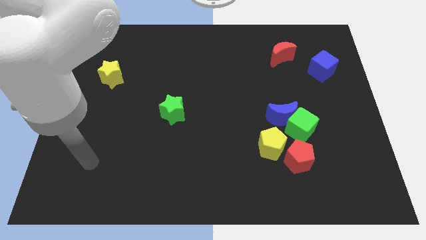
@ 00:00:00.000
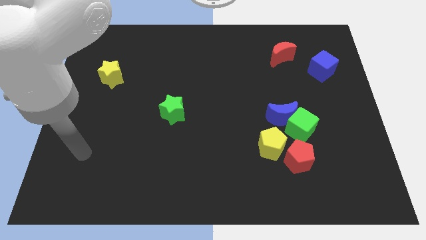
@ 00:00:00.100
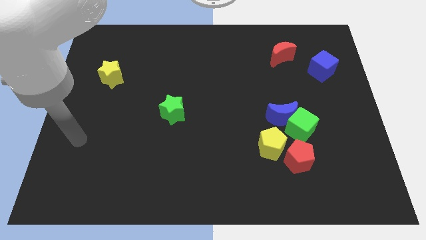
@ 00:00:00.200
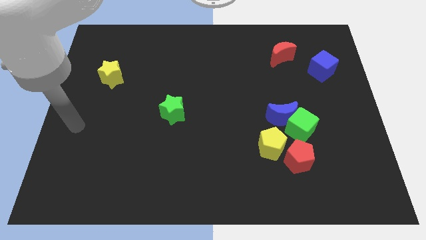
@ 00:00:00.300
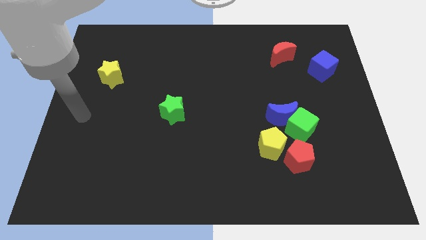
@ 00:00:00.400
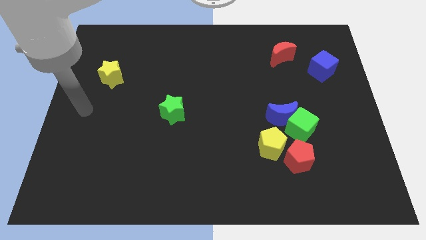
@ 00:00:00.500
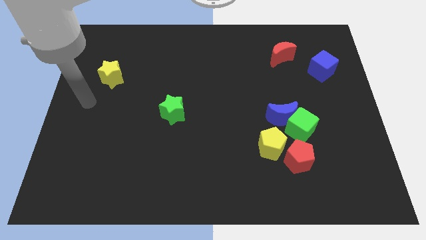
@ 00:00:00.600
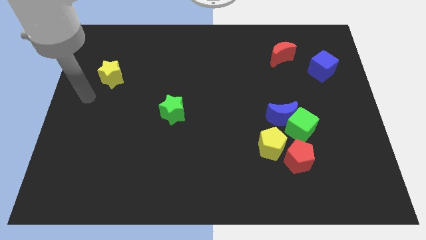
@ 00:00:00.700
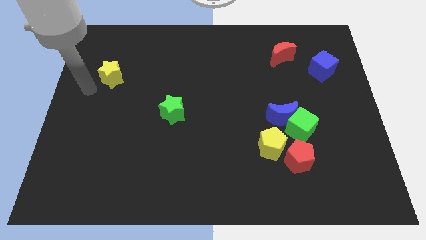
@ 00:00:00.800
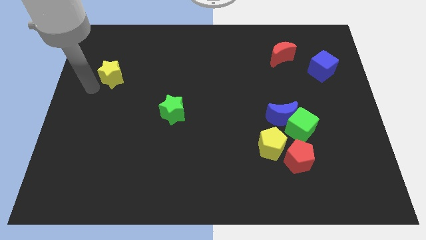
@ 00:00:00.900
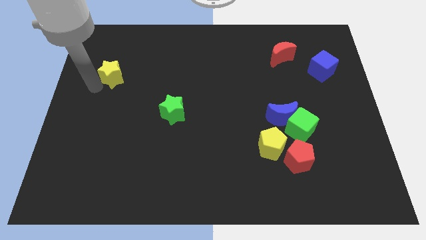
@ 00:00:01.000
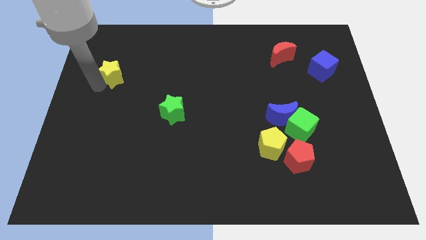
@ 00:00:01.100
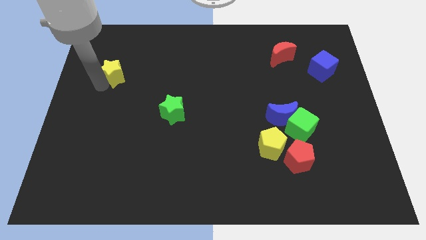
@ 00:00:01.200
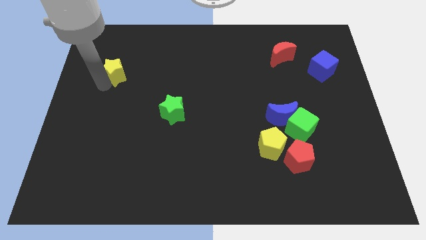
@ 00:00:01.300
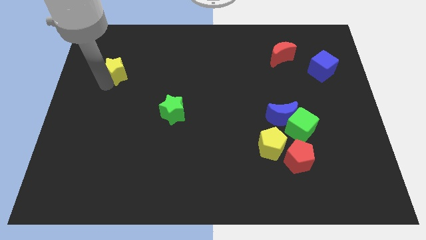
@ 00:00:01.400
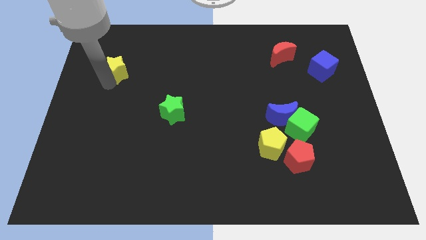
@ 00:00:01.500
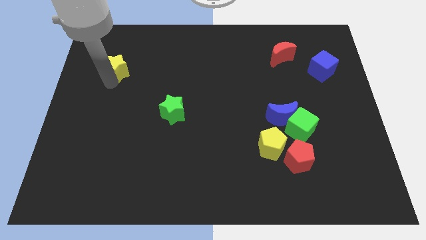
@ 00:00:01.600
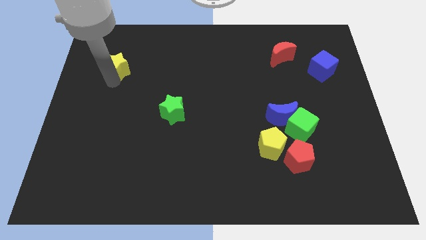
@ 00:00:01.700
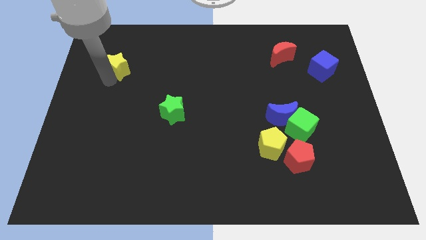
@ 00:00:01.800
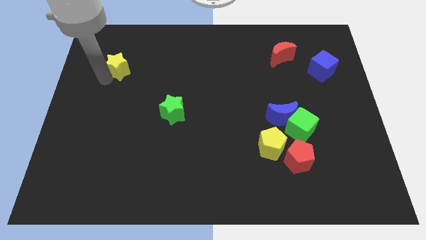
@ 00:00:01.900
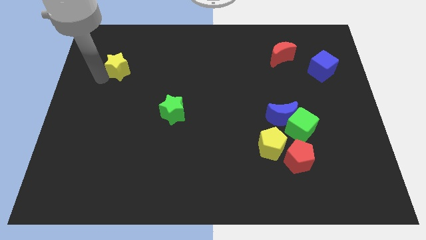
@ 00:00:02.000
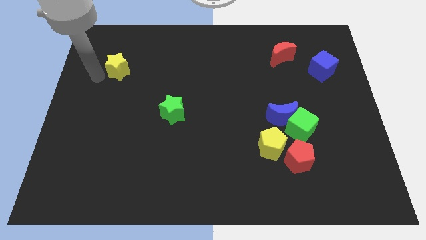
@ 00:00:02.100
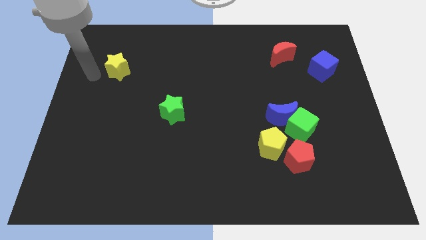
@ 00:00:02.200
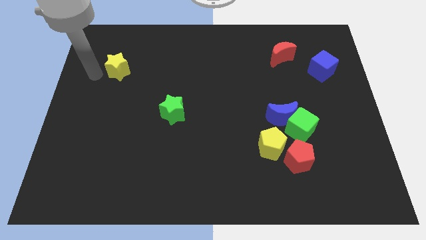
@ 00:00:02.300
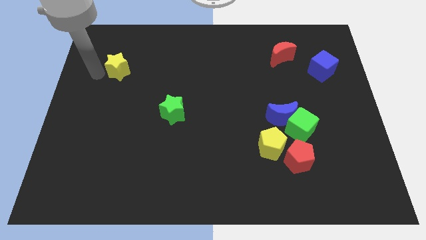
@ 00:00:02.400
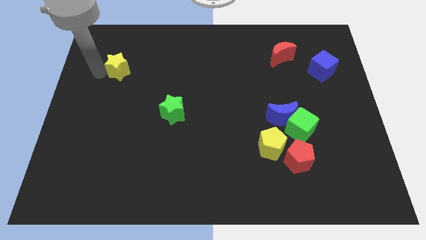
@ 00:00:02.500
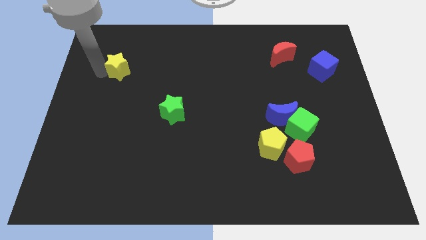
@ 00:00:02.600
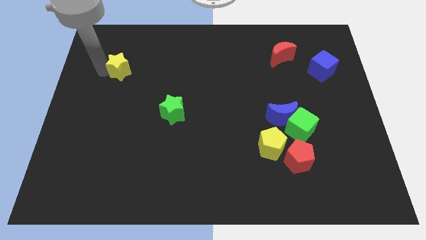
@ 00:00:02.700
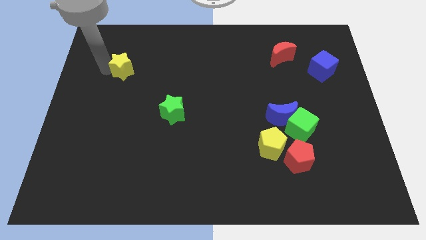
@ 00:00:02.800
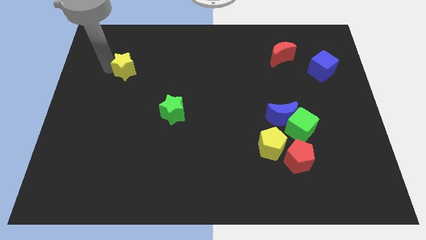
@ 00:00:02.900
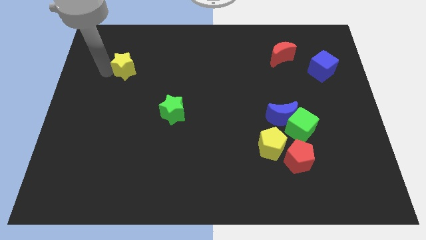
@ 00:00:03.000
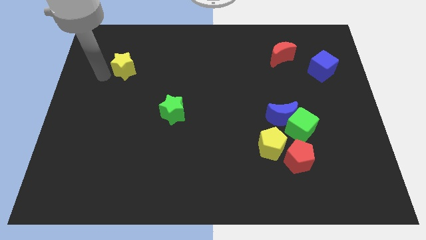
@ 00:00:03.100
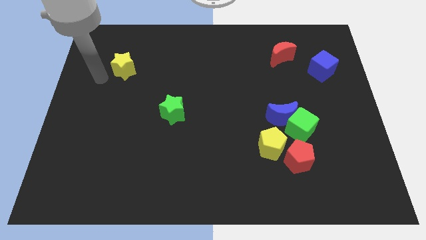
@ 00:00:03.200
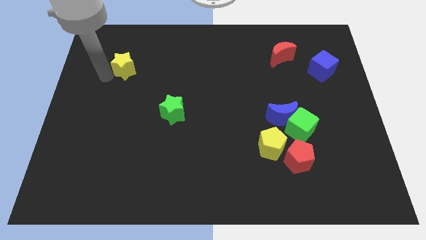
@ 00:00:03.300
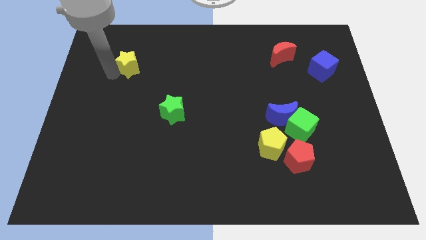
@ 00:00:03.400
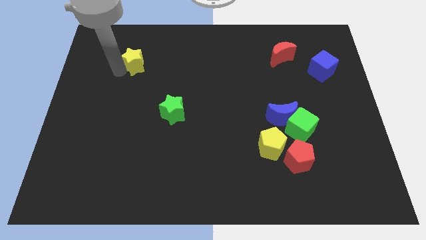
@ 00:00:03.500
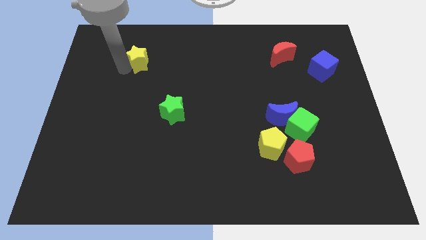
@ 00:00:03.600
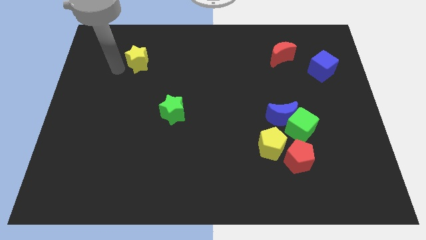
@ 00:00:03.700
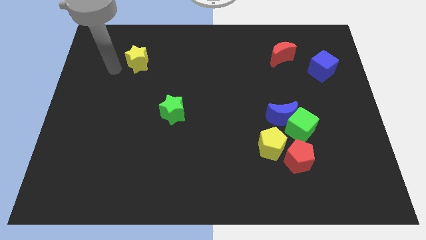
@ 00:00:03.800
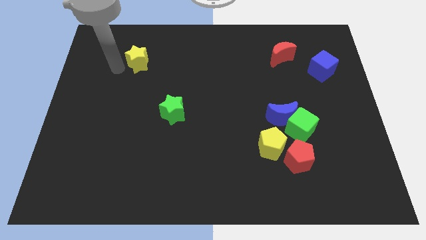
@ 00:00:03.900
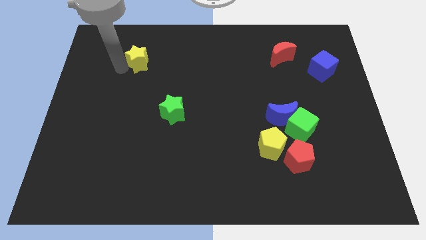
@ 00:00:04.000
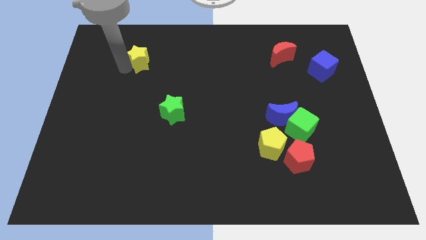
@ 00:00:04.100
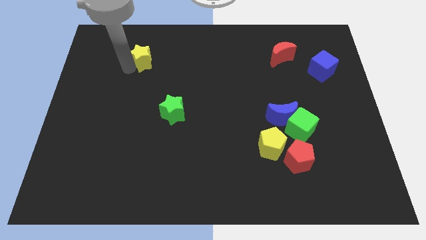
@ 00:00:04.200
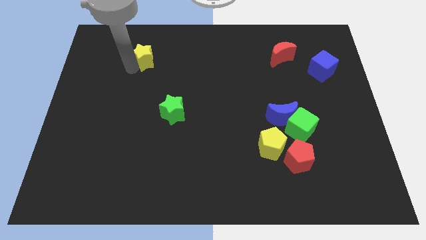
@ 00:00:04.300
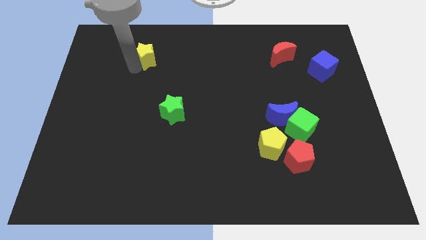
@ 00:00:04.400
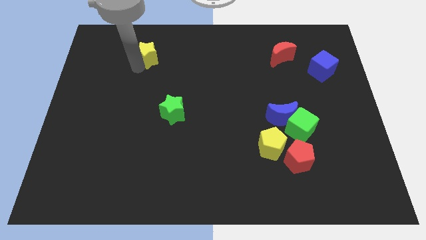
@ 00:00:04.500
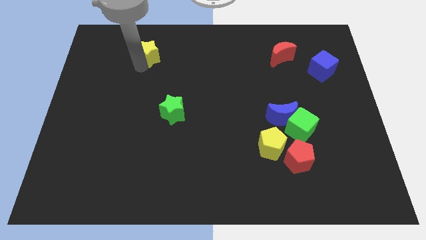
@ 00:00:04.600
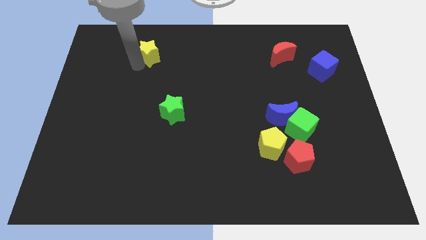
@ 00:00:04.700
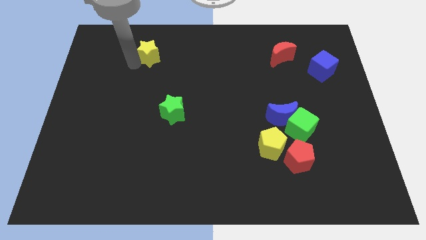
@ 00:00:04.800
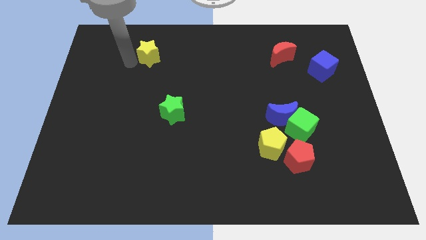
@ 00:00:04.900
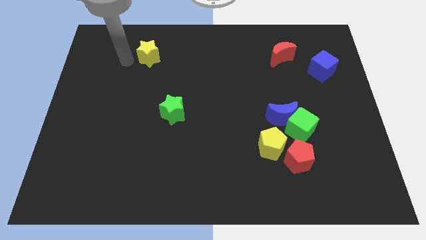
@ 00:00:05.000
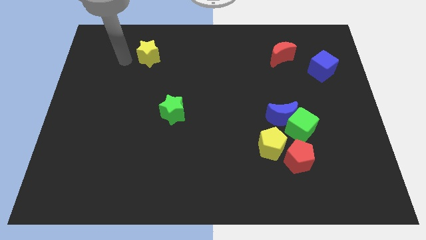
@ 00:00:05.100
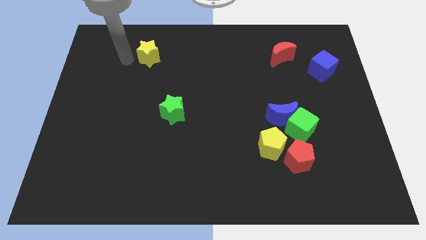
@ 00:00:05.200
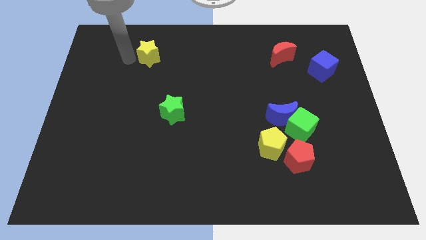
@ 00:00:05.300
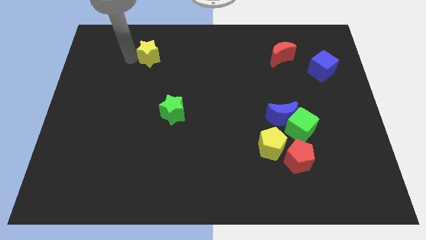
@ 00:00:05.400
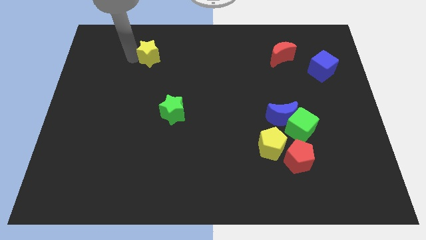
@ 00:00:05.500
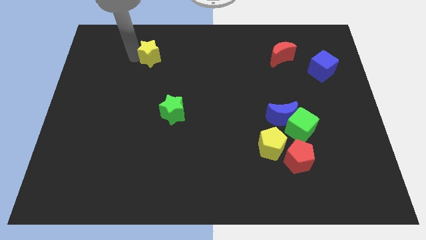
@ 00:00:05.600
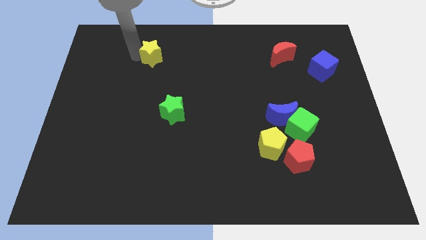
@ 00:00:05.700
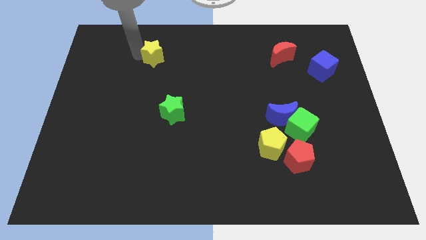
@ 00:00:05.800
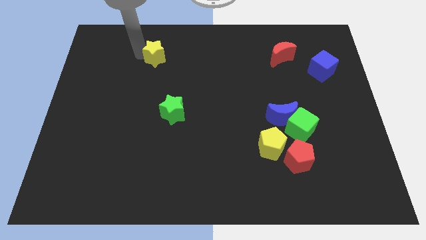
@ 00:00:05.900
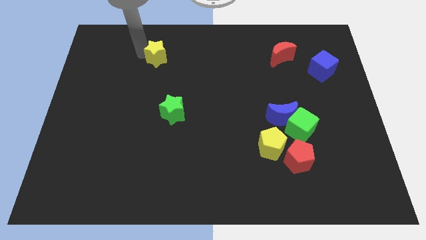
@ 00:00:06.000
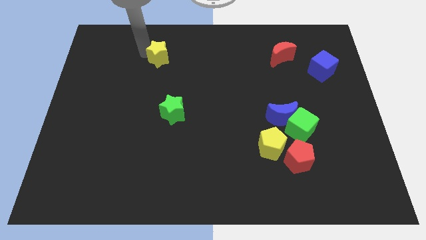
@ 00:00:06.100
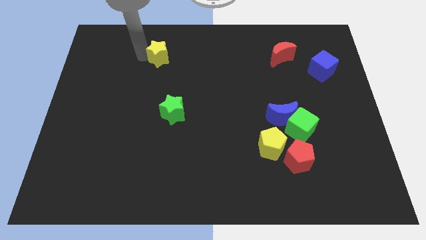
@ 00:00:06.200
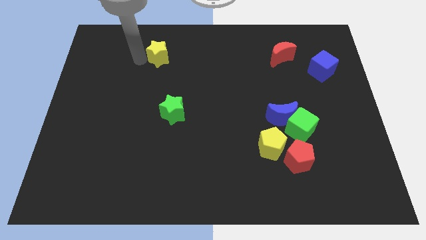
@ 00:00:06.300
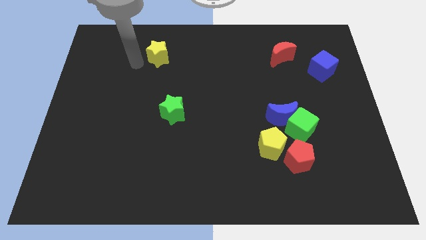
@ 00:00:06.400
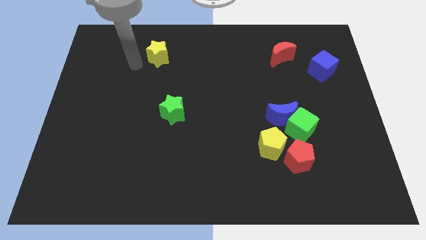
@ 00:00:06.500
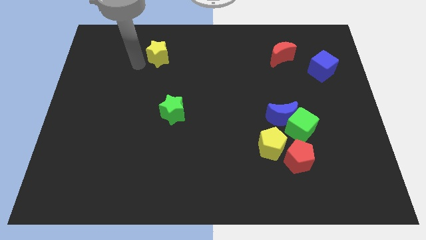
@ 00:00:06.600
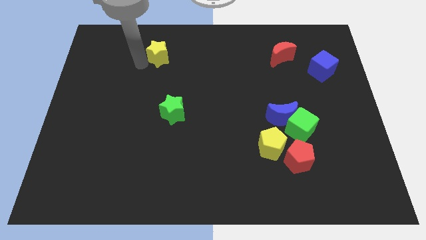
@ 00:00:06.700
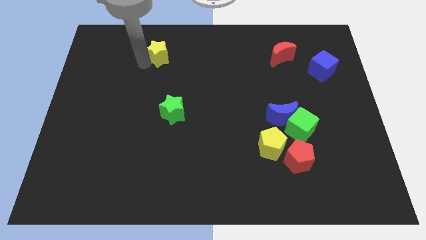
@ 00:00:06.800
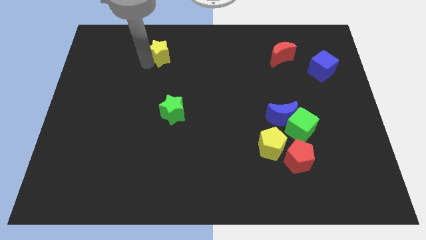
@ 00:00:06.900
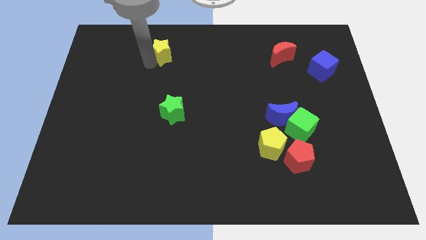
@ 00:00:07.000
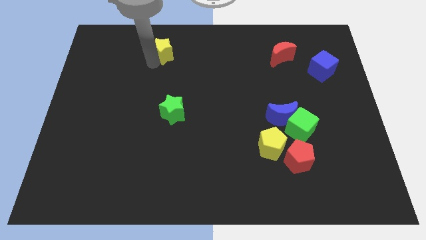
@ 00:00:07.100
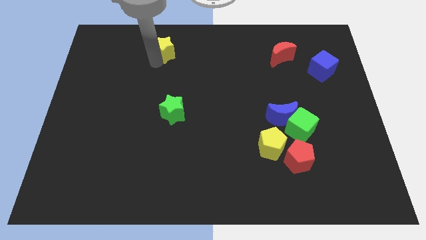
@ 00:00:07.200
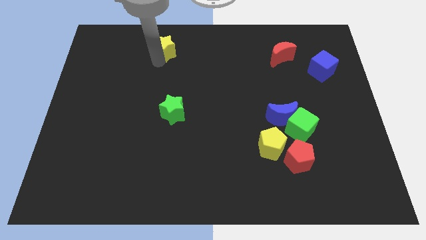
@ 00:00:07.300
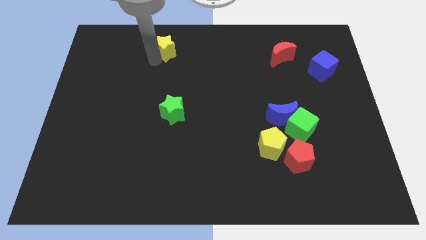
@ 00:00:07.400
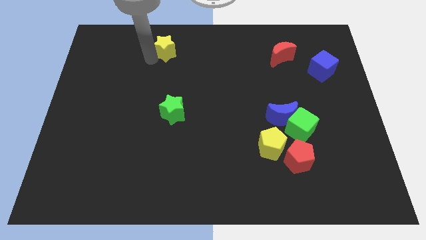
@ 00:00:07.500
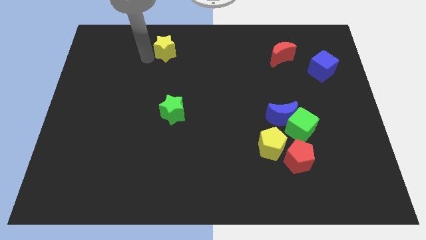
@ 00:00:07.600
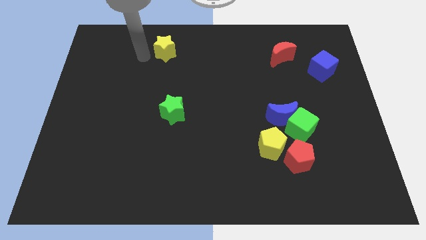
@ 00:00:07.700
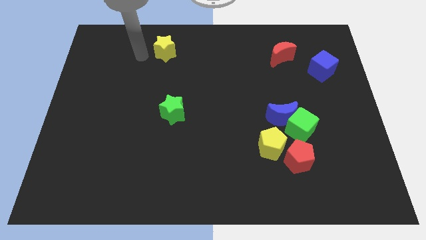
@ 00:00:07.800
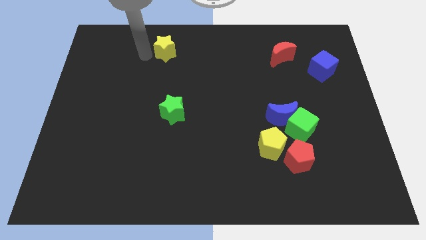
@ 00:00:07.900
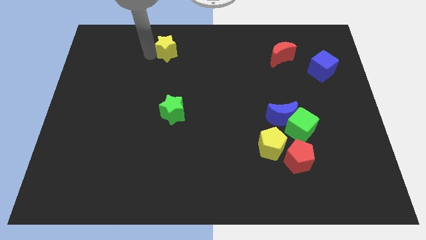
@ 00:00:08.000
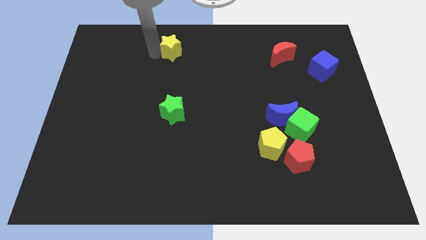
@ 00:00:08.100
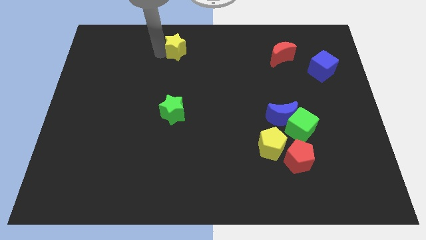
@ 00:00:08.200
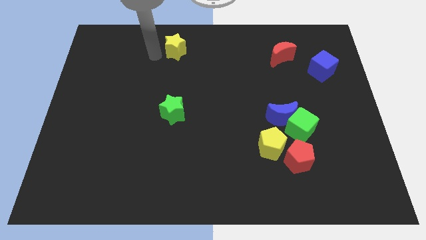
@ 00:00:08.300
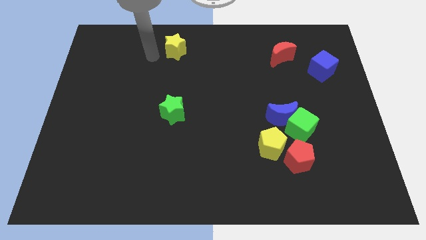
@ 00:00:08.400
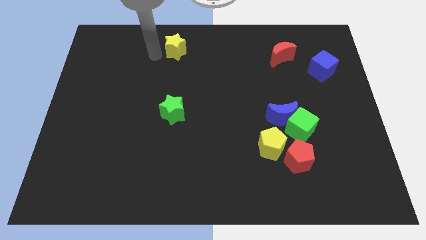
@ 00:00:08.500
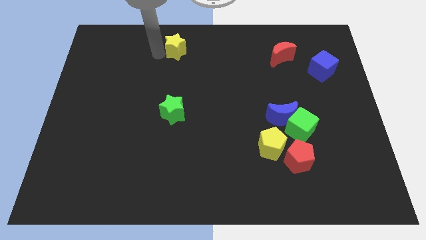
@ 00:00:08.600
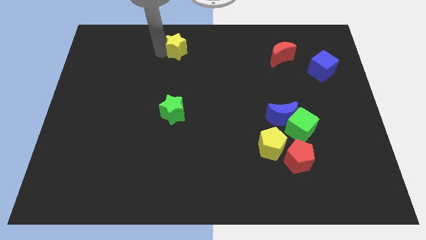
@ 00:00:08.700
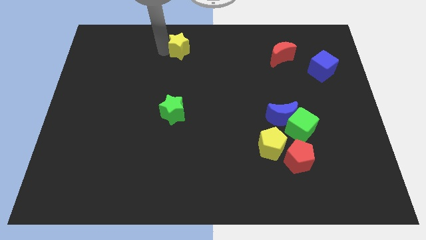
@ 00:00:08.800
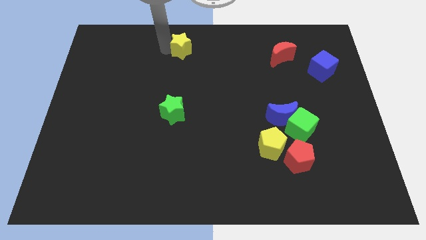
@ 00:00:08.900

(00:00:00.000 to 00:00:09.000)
push the yellow star to the top side
